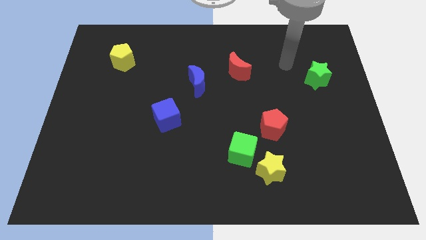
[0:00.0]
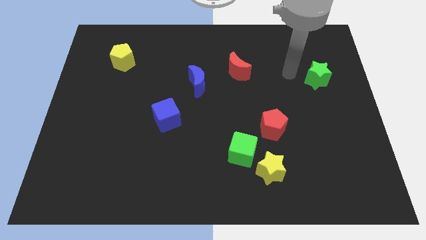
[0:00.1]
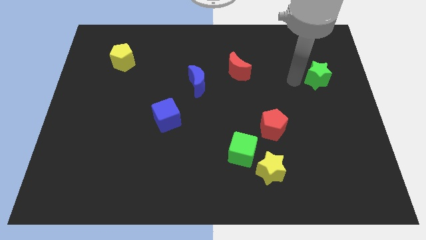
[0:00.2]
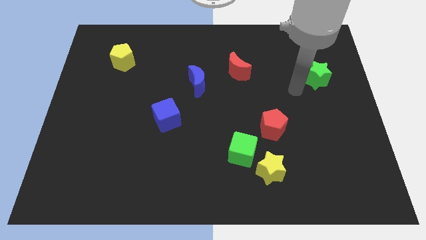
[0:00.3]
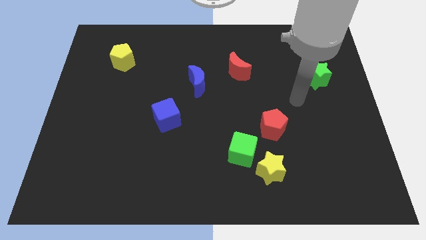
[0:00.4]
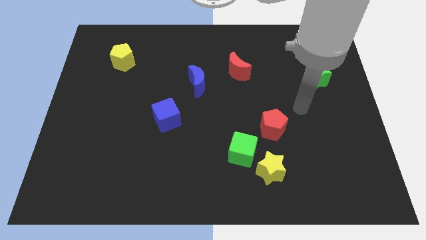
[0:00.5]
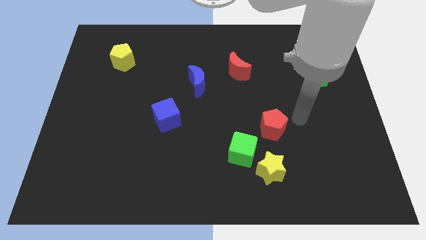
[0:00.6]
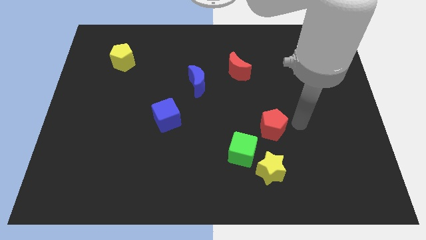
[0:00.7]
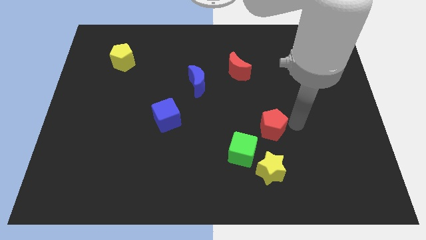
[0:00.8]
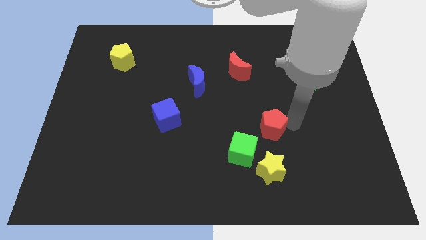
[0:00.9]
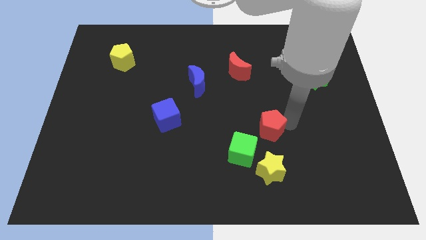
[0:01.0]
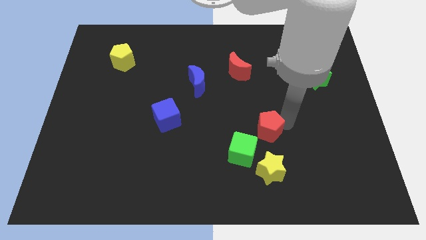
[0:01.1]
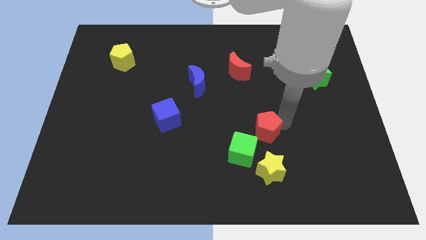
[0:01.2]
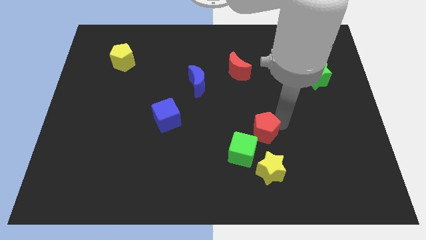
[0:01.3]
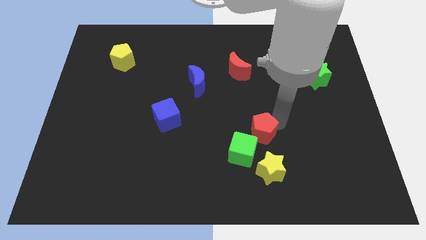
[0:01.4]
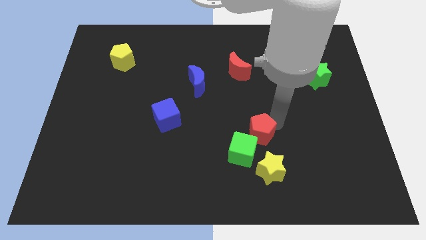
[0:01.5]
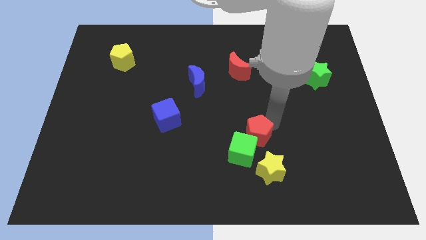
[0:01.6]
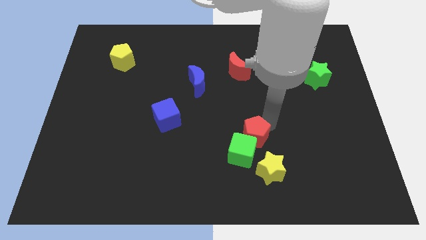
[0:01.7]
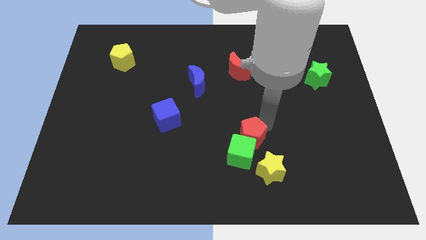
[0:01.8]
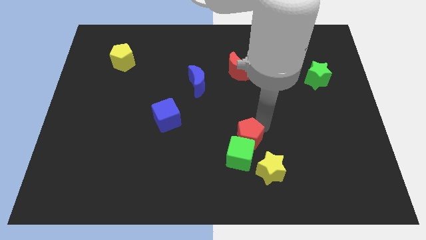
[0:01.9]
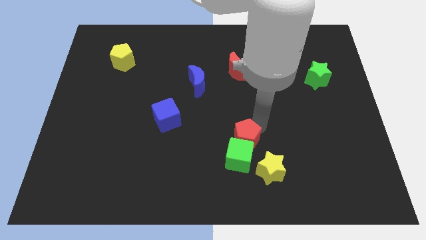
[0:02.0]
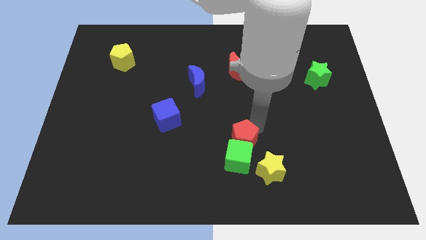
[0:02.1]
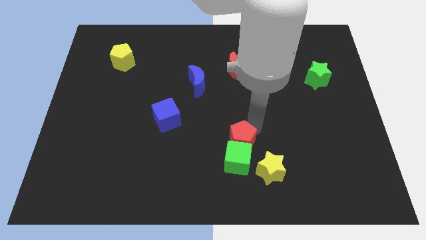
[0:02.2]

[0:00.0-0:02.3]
slightly push the red pentagon downwards and left

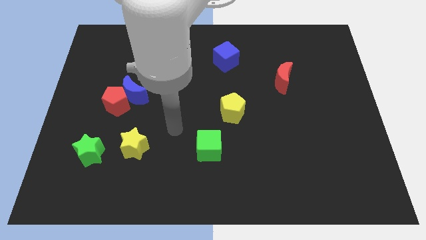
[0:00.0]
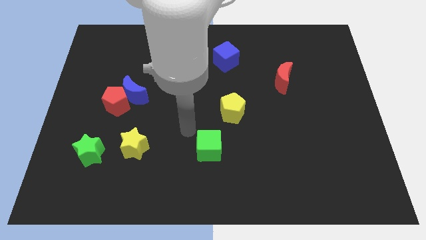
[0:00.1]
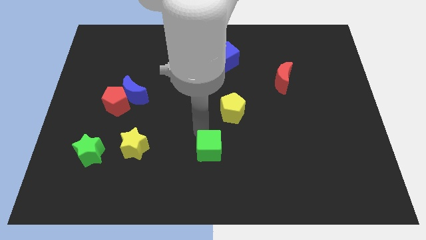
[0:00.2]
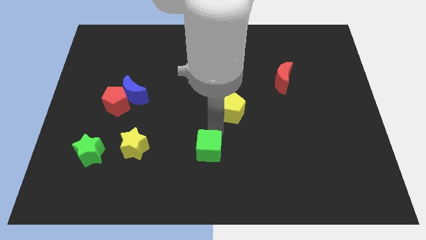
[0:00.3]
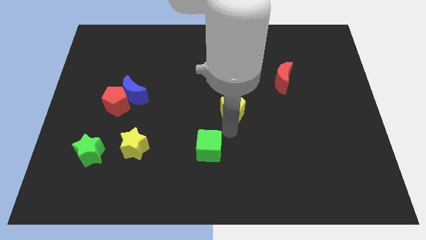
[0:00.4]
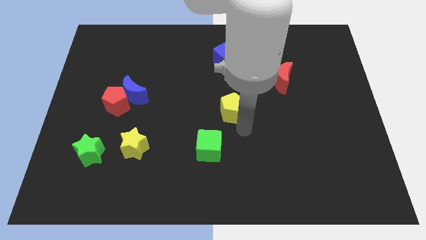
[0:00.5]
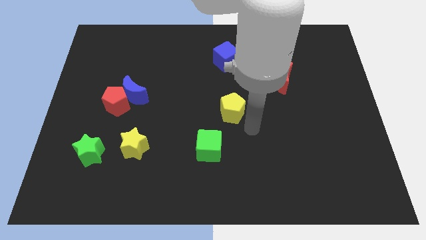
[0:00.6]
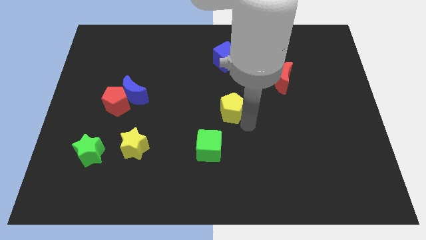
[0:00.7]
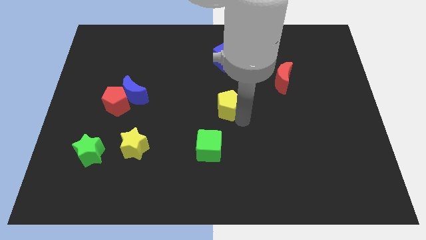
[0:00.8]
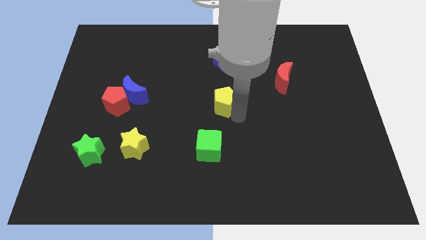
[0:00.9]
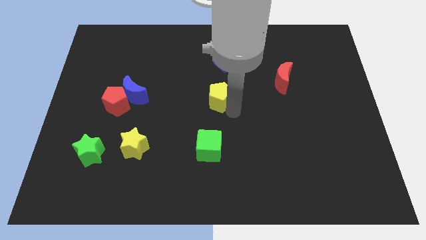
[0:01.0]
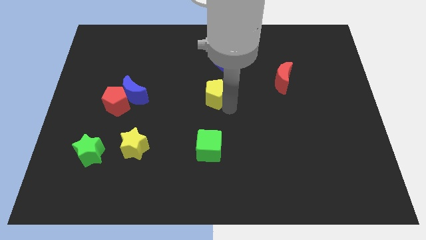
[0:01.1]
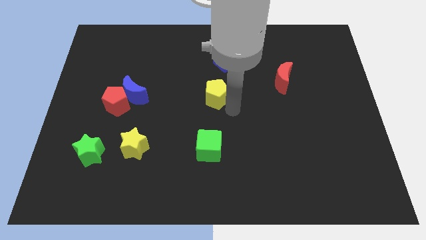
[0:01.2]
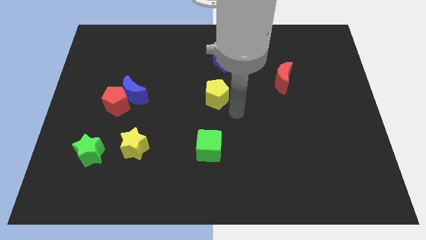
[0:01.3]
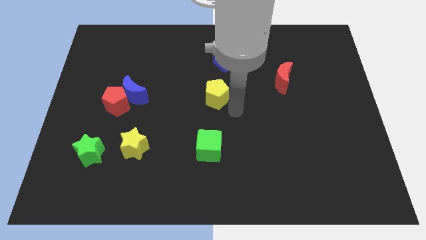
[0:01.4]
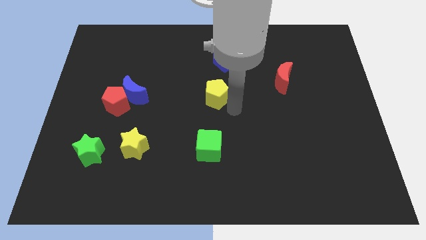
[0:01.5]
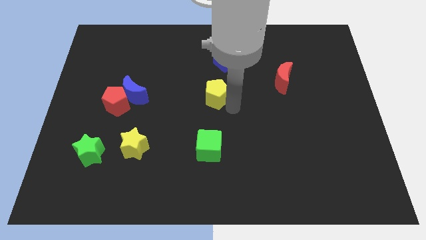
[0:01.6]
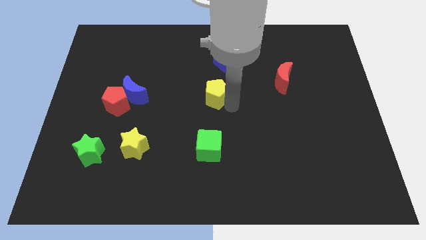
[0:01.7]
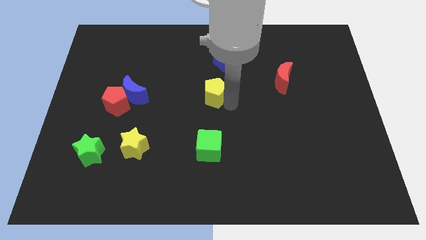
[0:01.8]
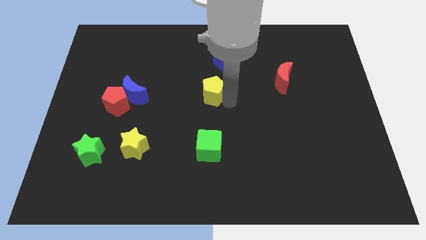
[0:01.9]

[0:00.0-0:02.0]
slightly slide the yellow pentagon upwards and to the left

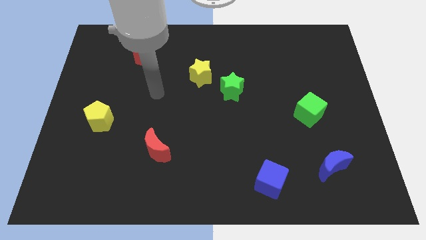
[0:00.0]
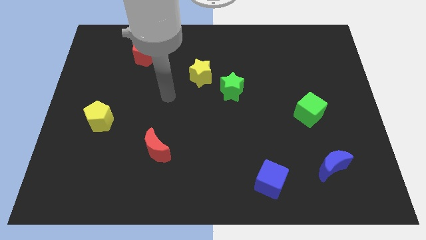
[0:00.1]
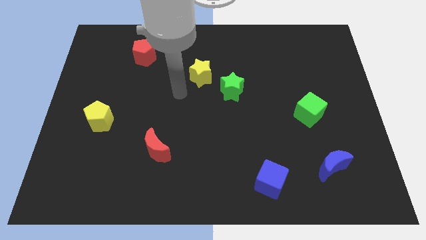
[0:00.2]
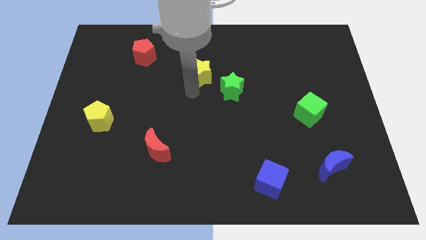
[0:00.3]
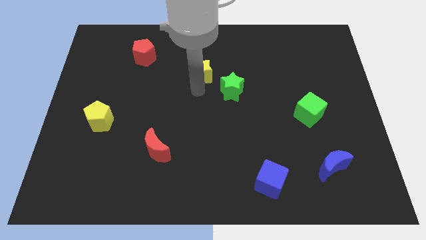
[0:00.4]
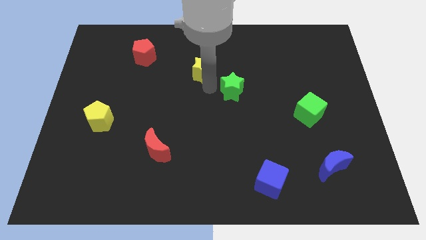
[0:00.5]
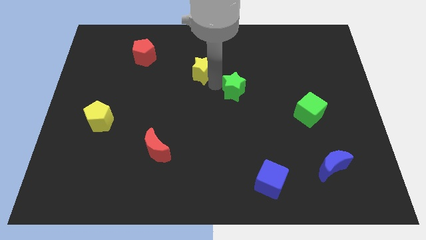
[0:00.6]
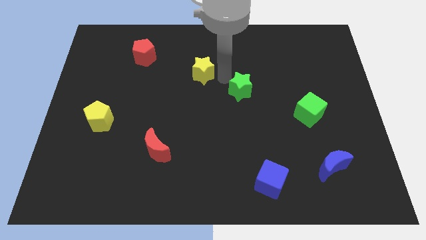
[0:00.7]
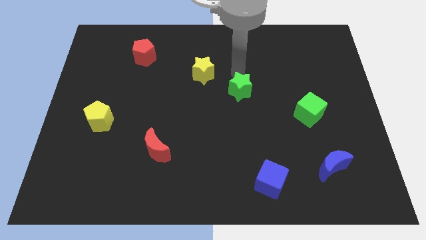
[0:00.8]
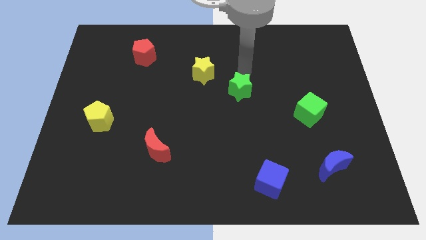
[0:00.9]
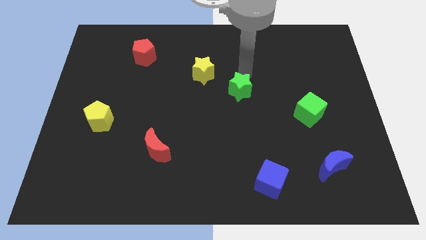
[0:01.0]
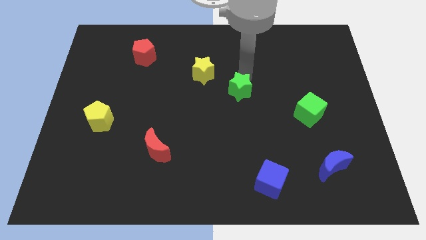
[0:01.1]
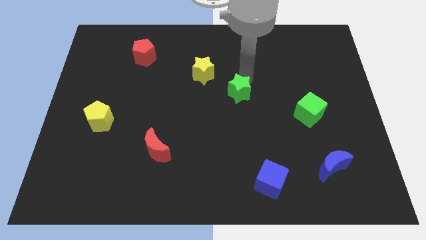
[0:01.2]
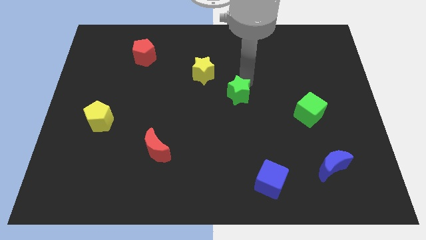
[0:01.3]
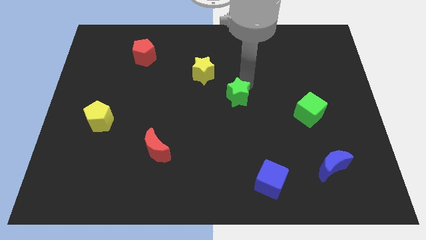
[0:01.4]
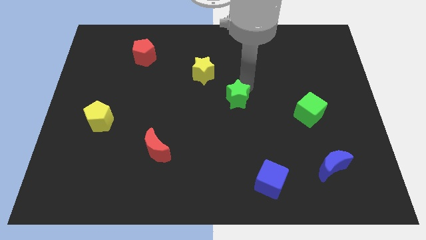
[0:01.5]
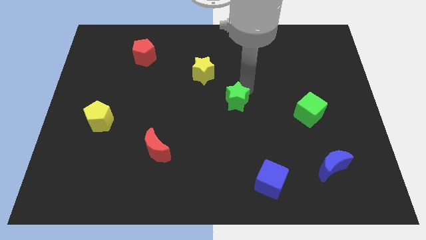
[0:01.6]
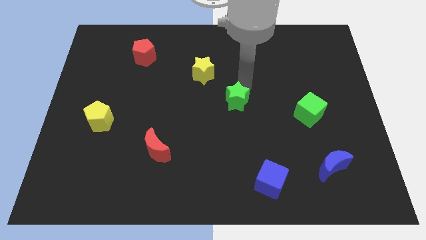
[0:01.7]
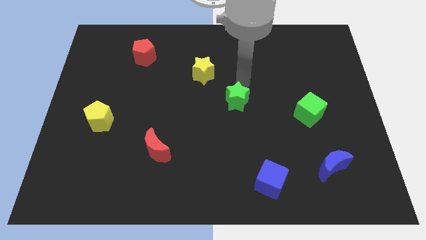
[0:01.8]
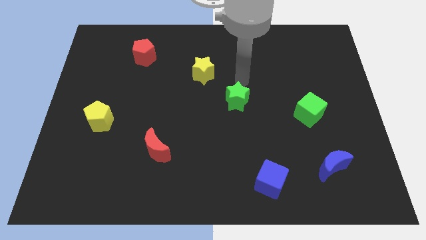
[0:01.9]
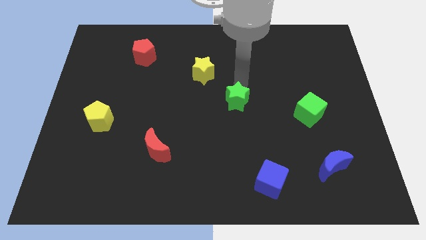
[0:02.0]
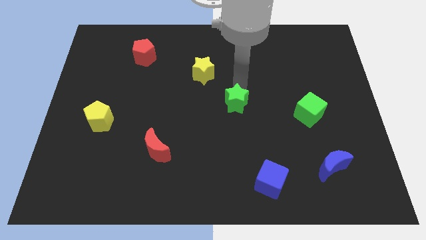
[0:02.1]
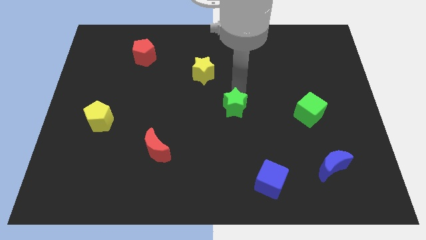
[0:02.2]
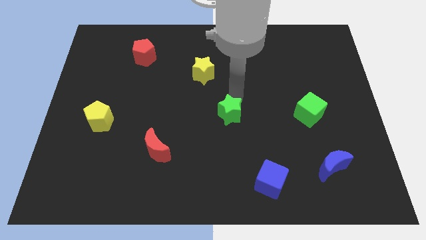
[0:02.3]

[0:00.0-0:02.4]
push the green star down a little

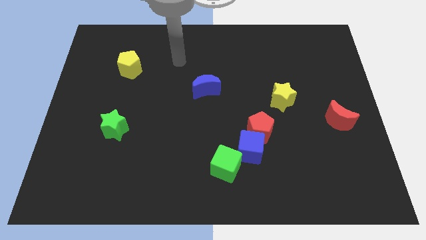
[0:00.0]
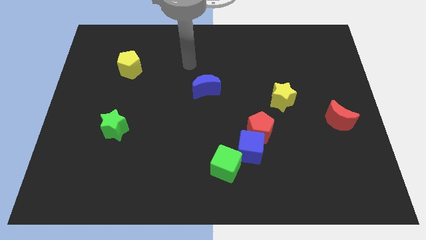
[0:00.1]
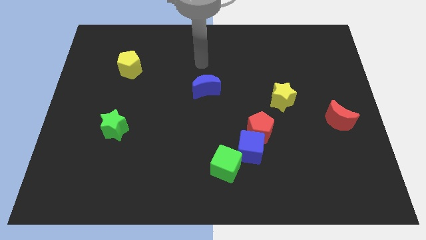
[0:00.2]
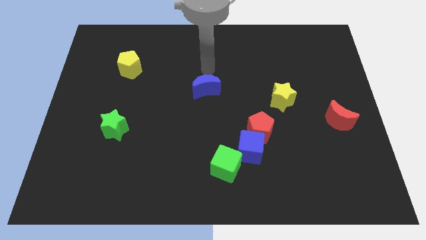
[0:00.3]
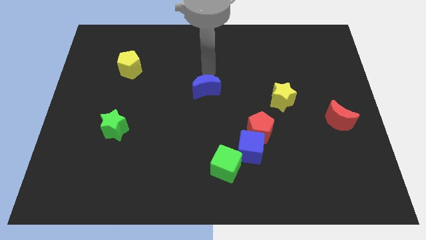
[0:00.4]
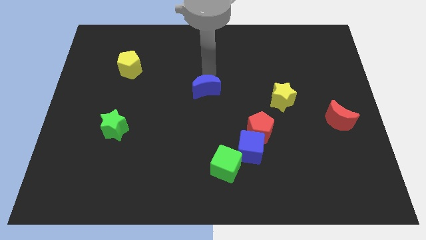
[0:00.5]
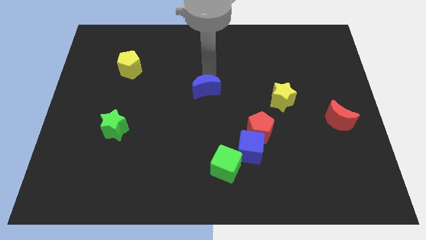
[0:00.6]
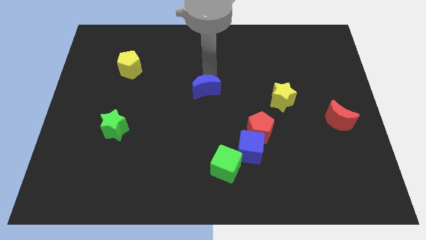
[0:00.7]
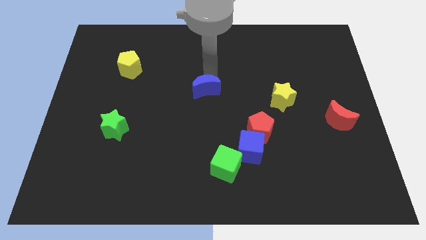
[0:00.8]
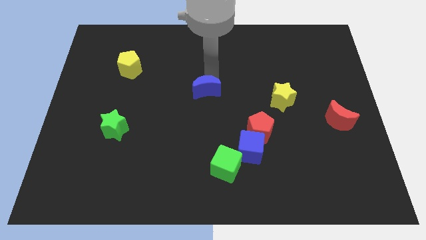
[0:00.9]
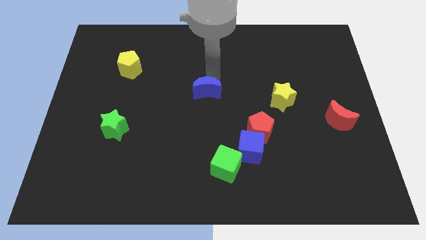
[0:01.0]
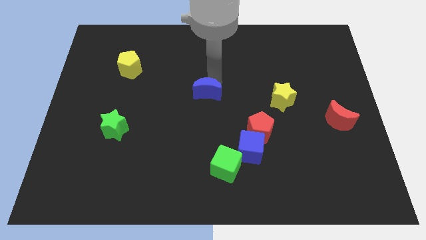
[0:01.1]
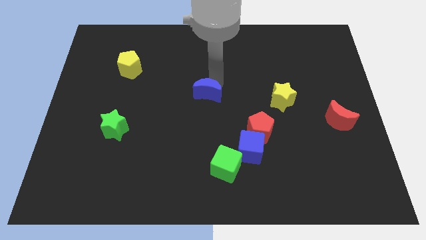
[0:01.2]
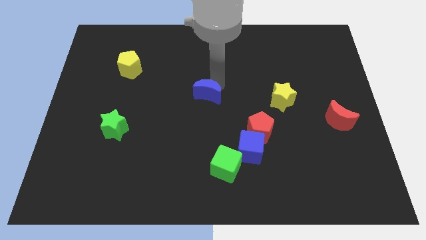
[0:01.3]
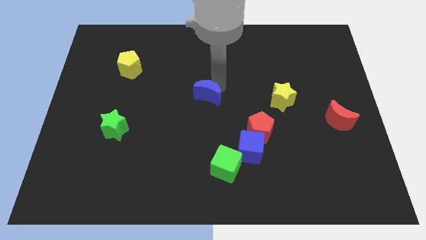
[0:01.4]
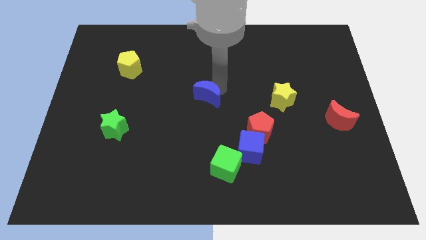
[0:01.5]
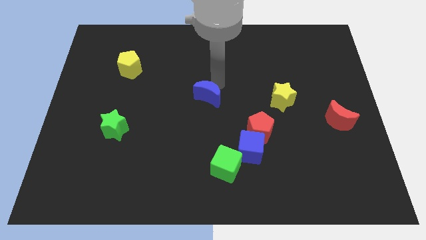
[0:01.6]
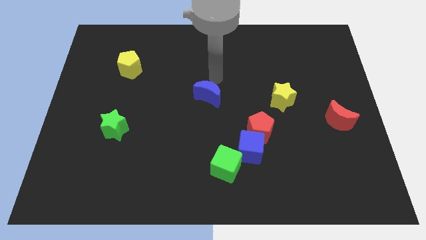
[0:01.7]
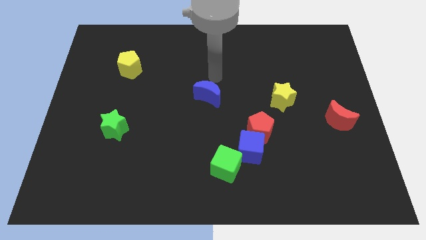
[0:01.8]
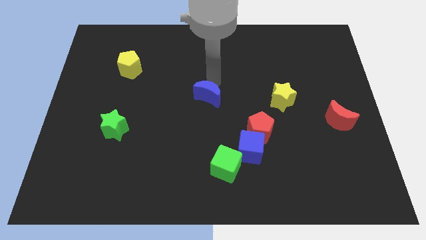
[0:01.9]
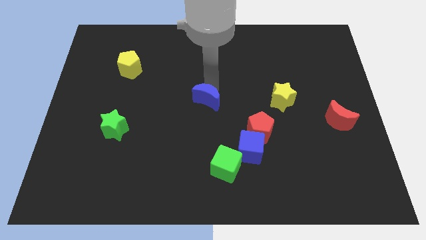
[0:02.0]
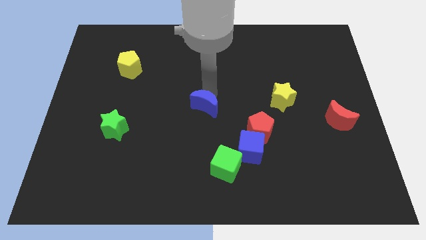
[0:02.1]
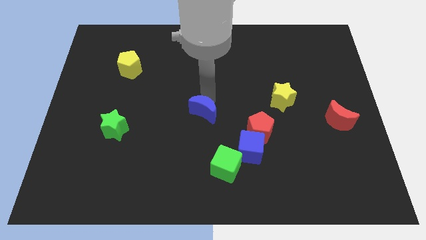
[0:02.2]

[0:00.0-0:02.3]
move the blue moon a little bit down
